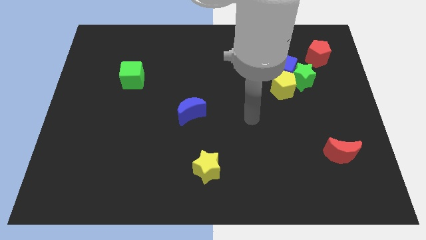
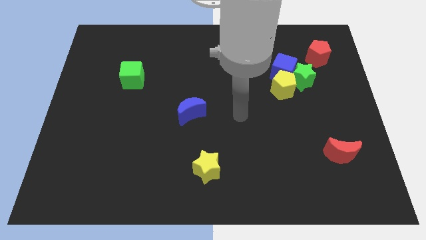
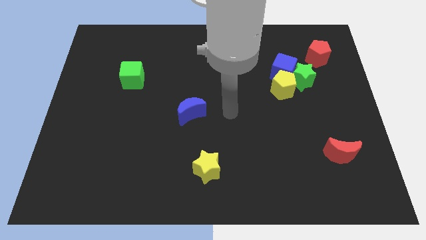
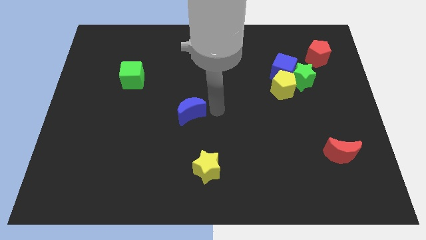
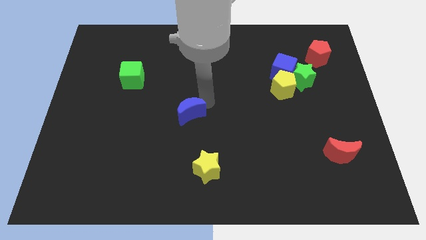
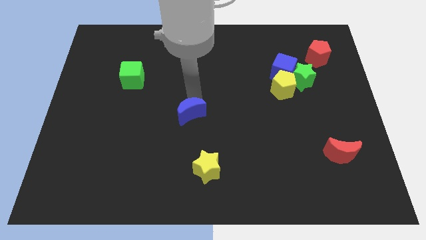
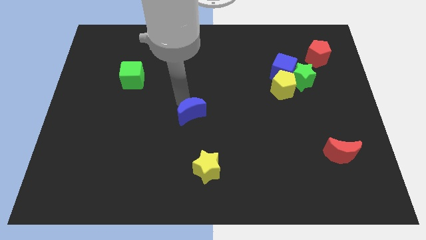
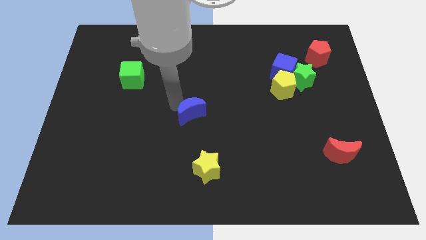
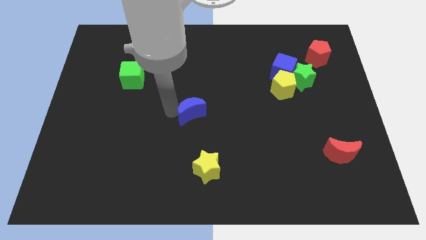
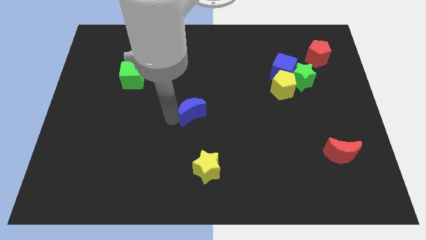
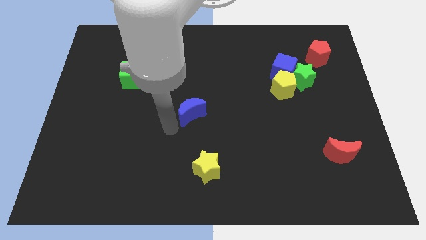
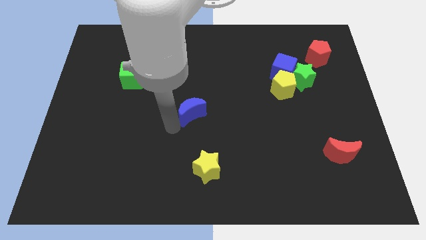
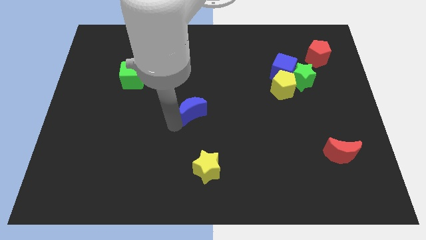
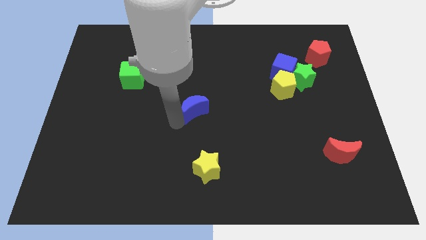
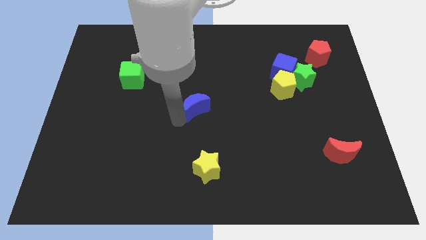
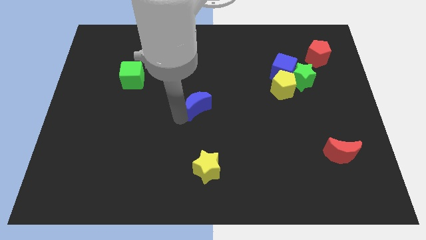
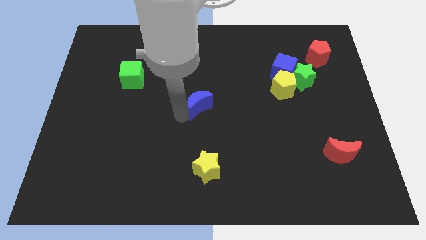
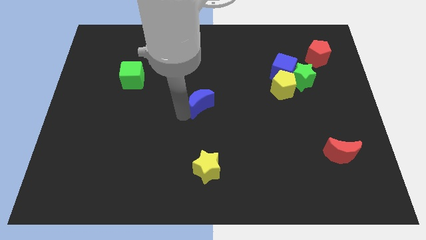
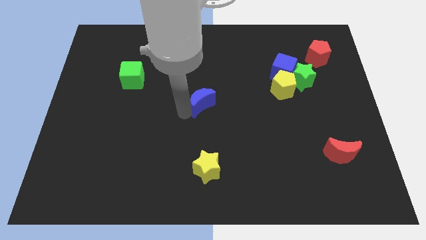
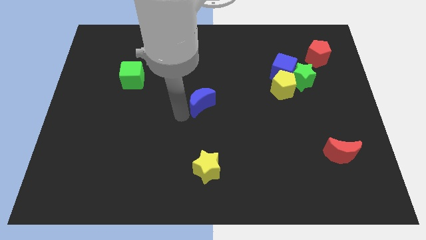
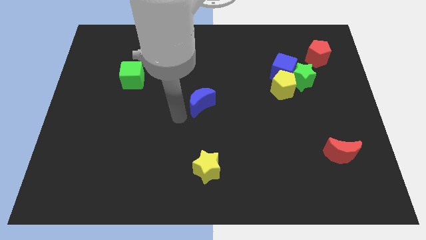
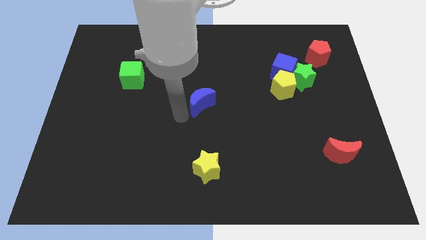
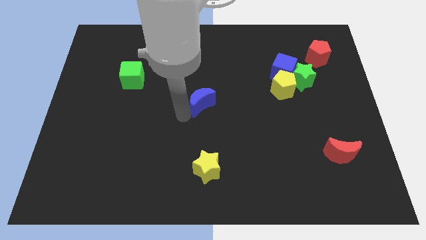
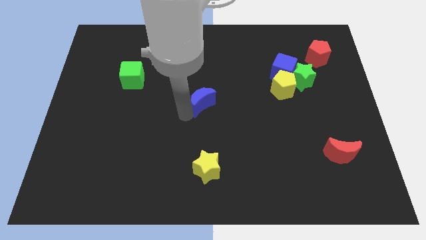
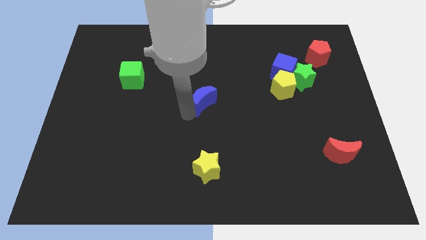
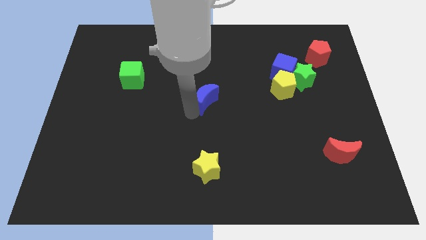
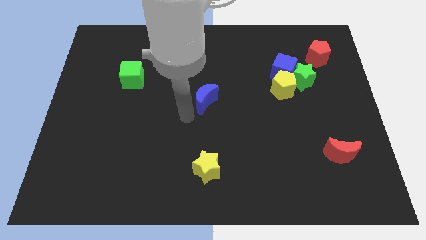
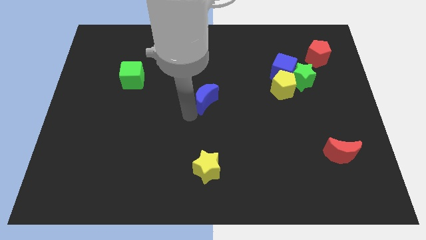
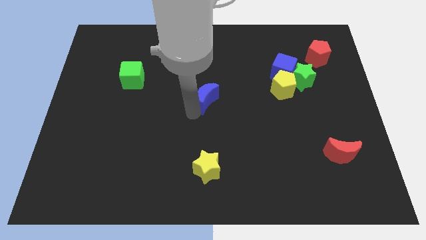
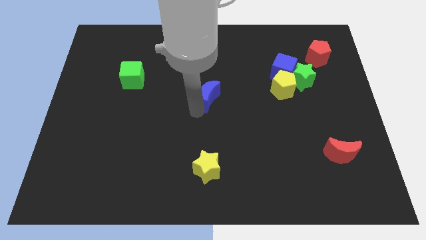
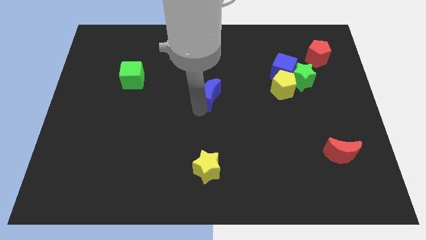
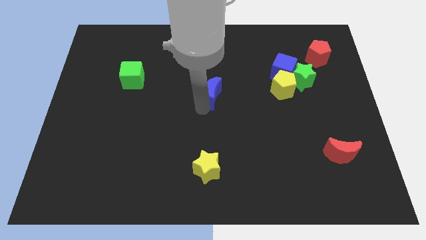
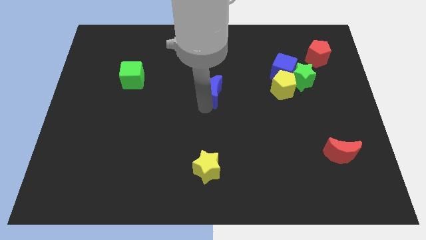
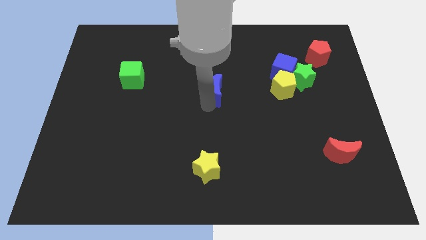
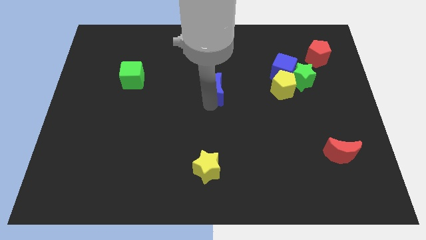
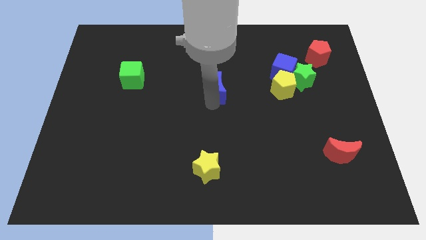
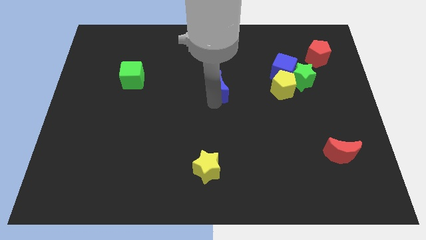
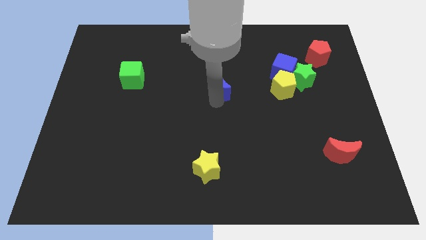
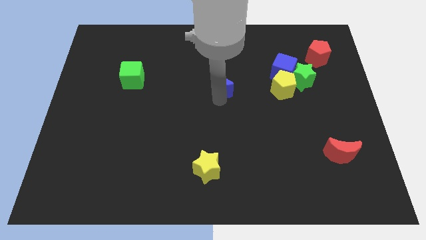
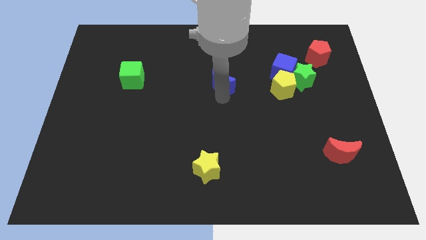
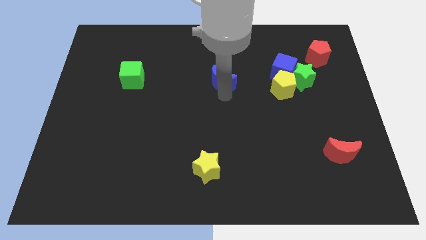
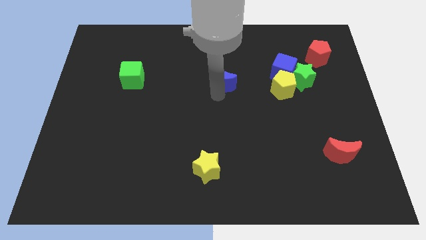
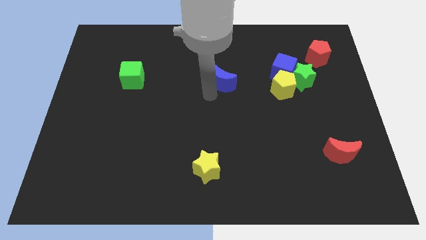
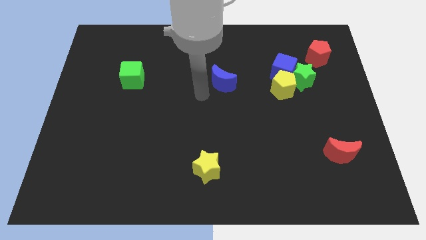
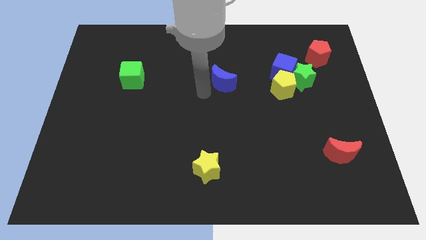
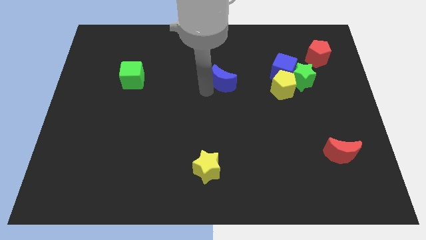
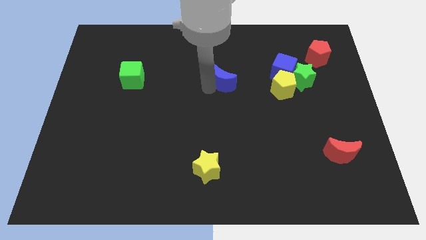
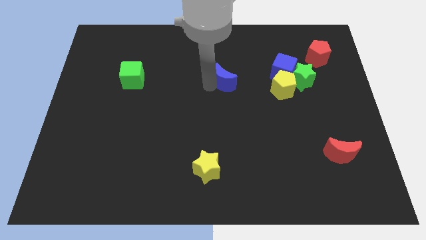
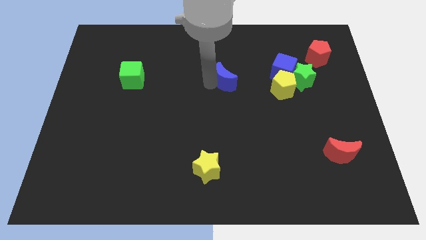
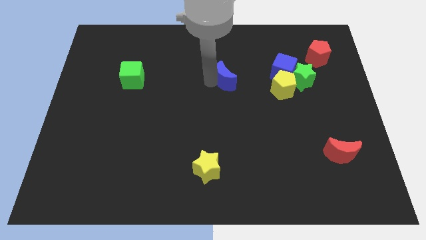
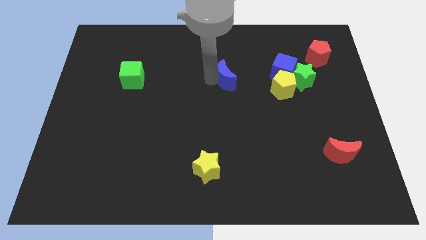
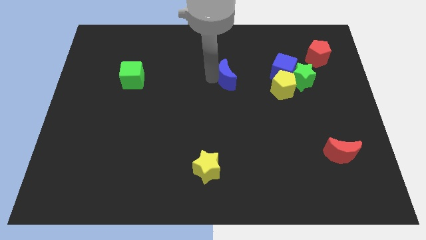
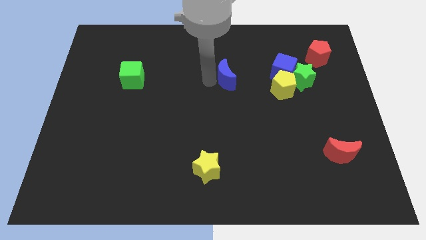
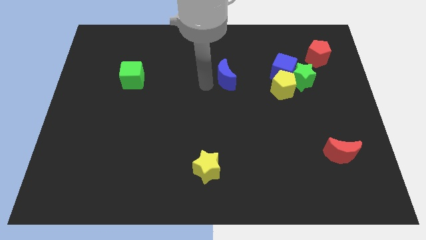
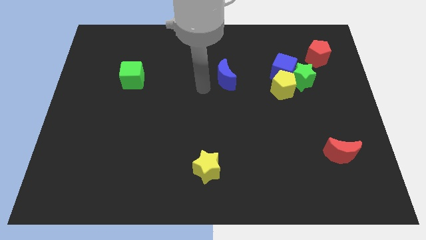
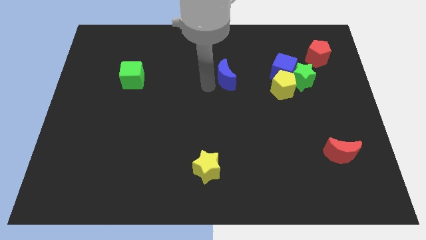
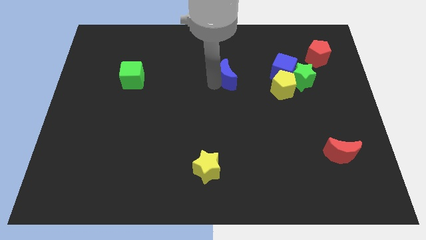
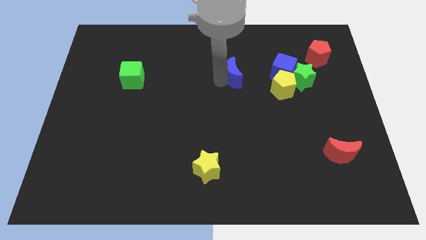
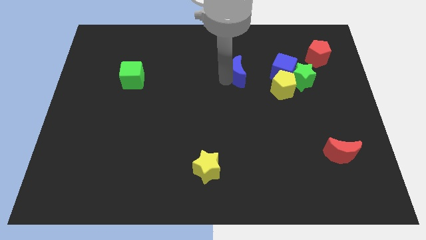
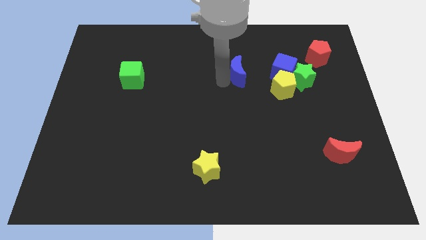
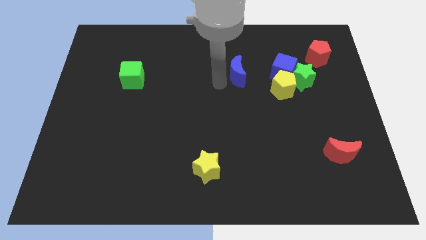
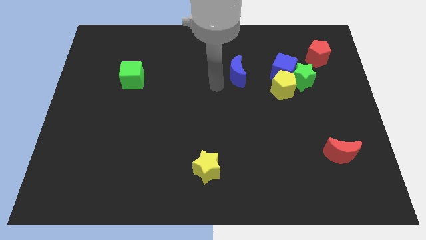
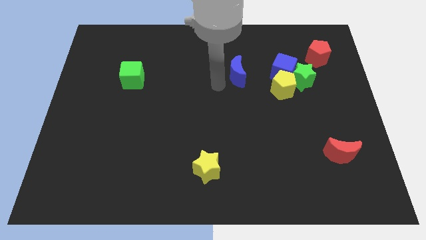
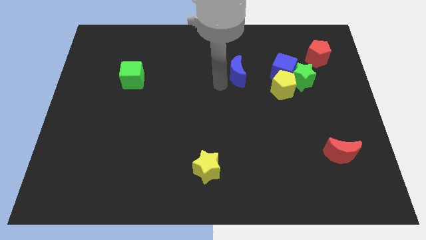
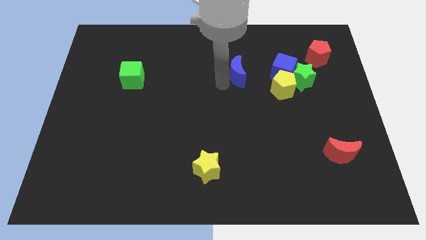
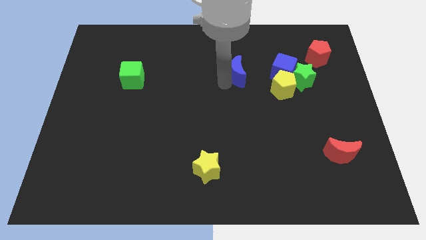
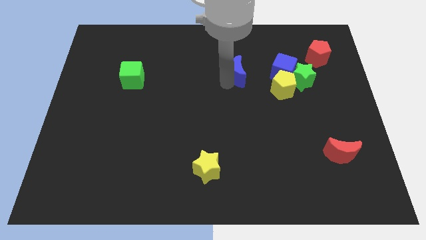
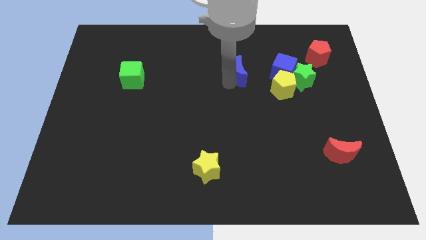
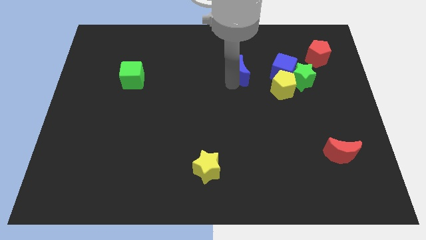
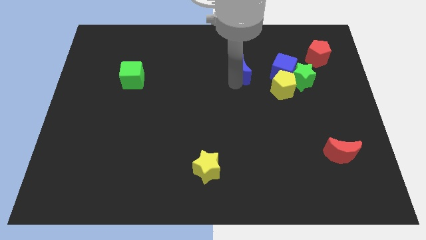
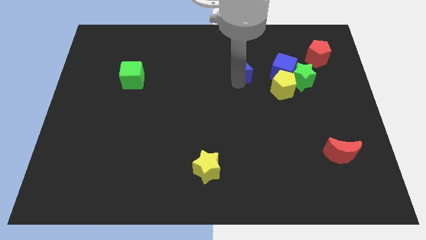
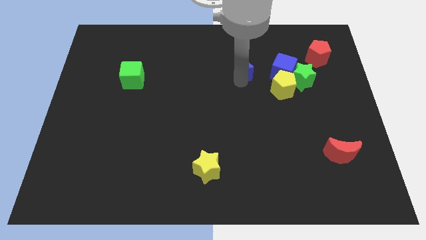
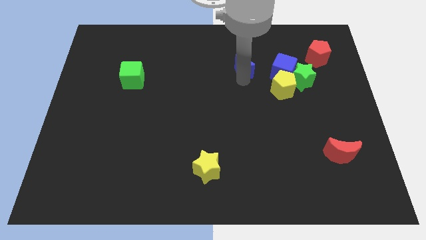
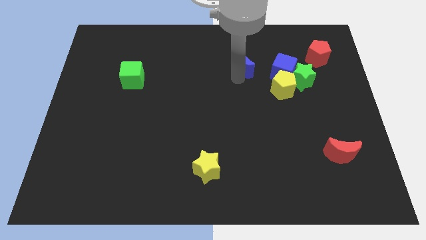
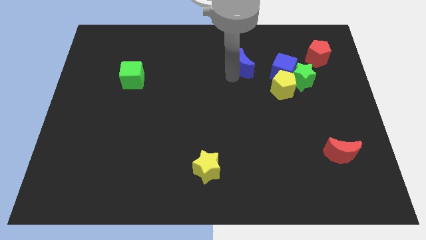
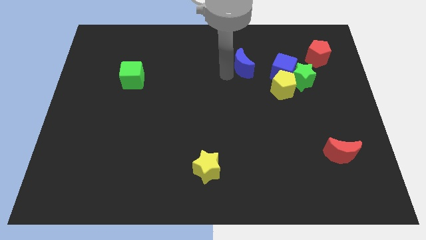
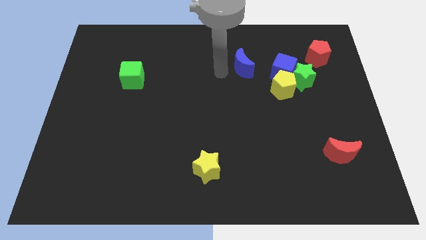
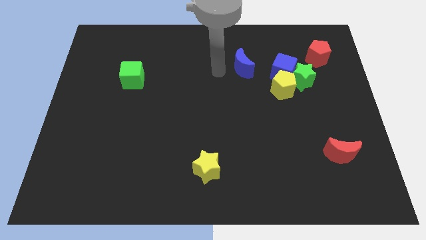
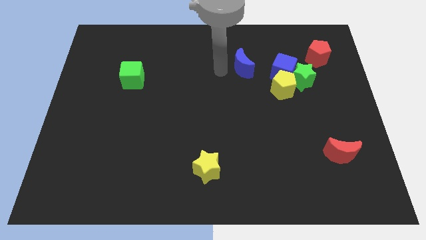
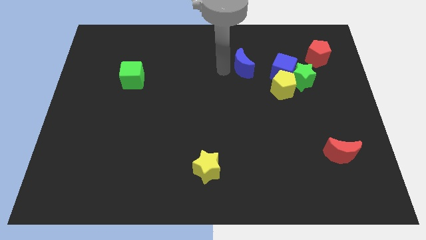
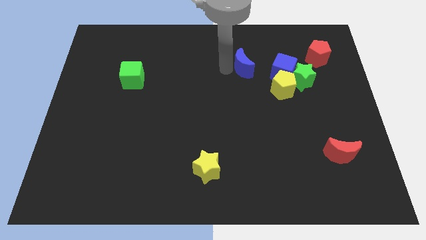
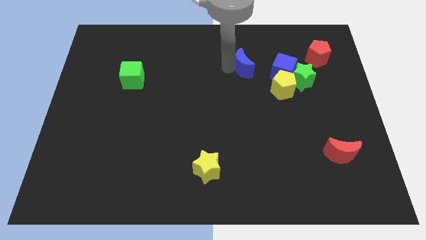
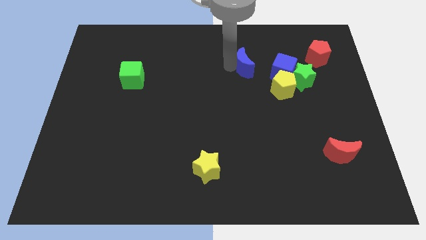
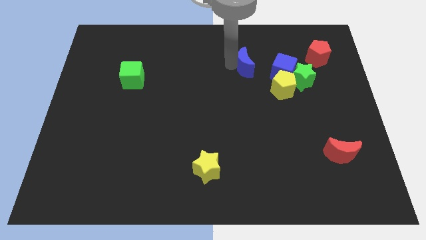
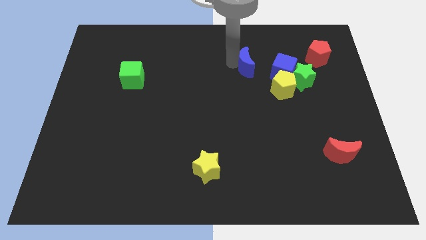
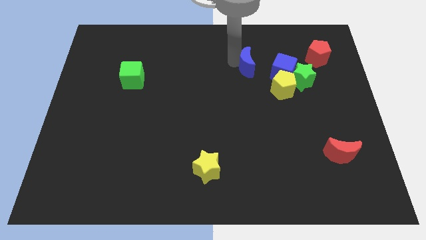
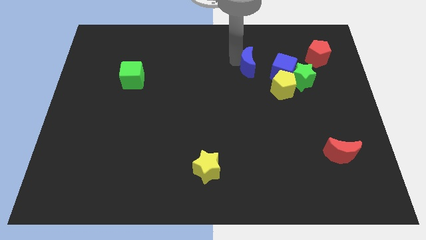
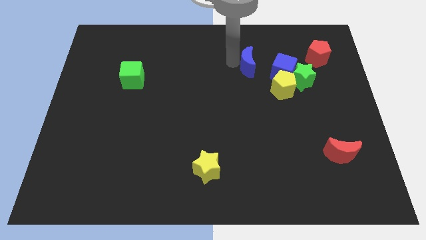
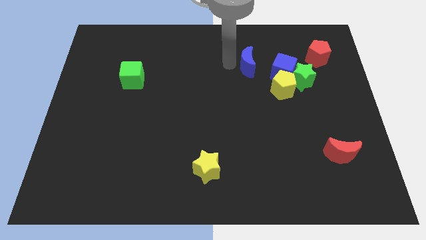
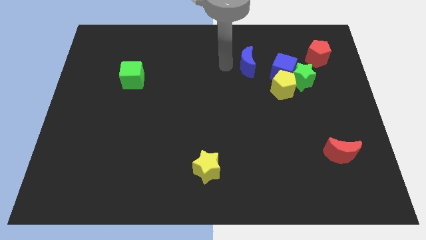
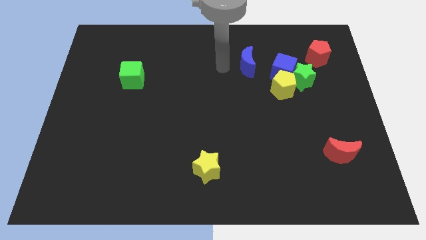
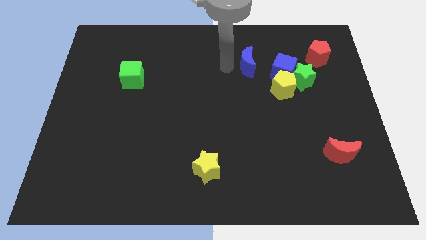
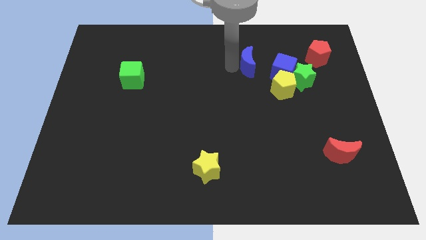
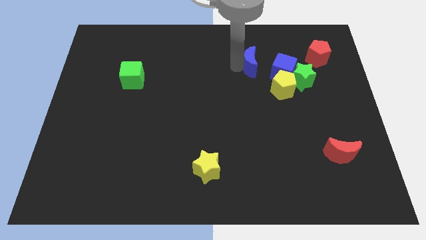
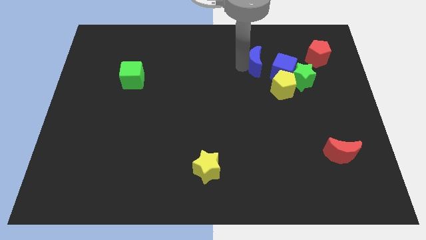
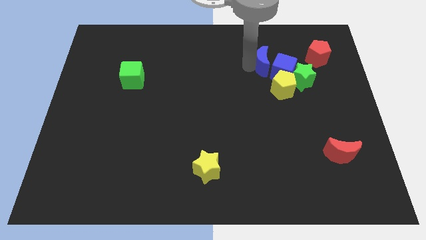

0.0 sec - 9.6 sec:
put the blue moon to the left of the red pentagon
